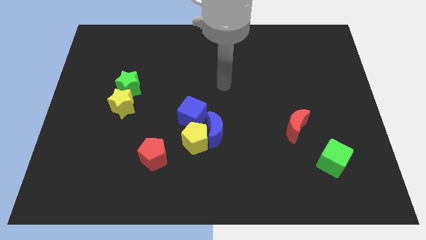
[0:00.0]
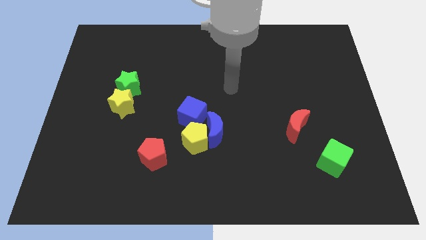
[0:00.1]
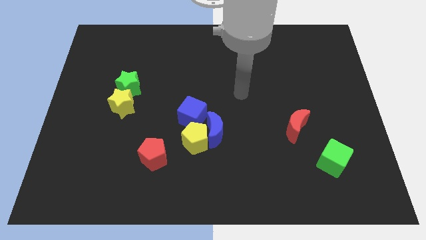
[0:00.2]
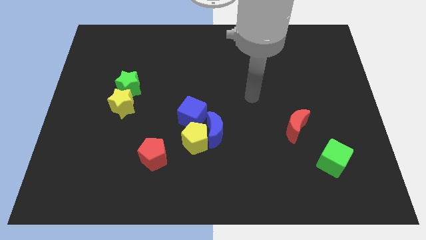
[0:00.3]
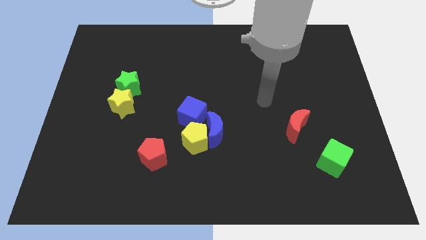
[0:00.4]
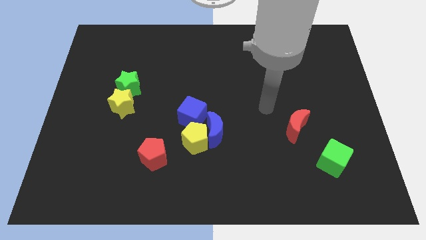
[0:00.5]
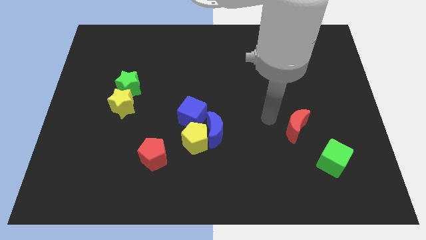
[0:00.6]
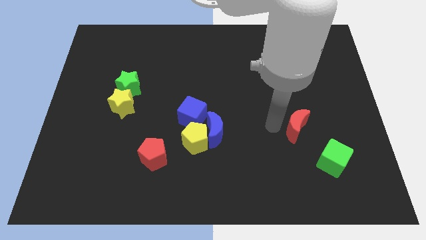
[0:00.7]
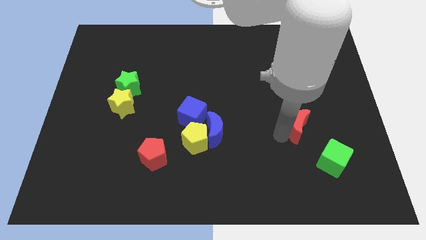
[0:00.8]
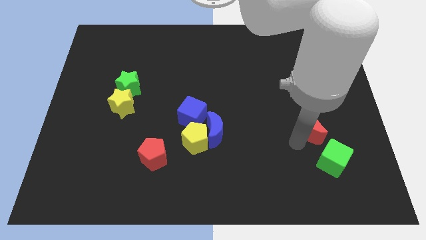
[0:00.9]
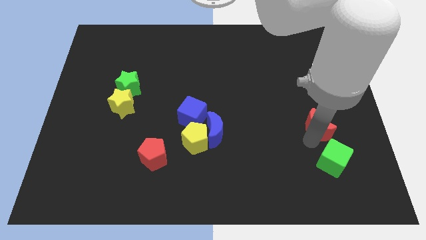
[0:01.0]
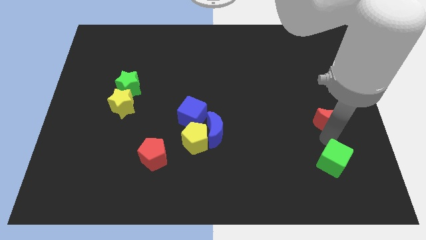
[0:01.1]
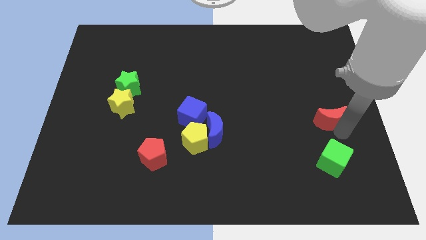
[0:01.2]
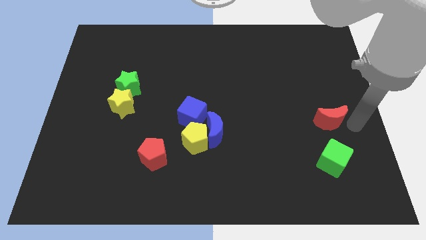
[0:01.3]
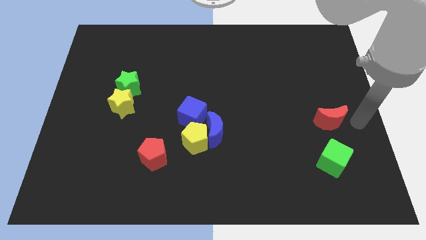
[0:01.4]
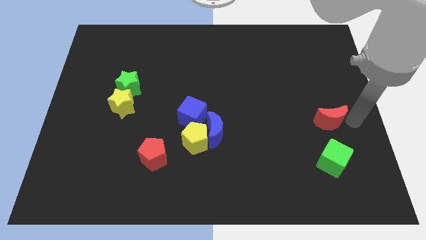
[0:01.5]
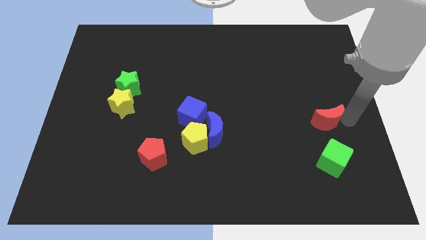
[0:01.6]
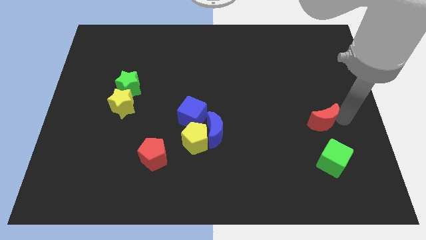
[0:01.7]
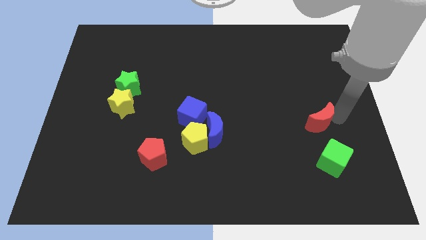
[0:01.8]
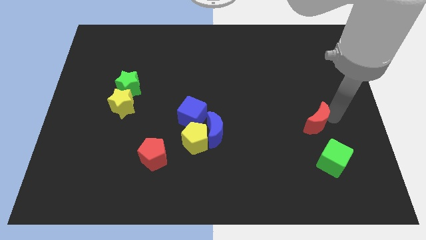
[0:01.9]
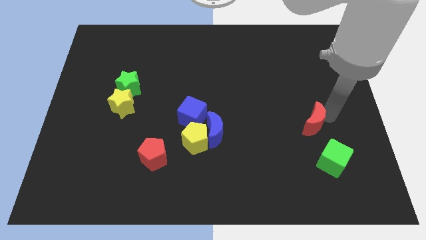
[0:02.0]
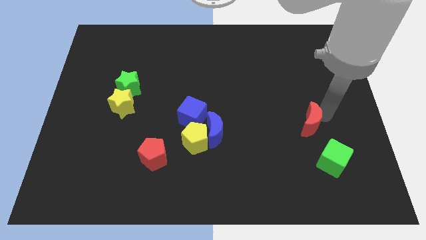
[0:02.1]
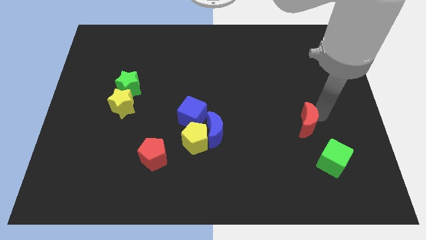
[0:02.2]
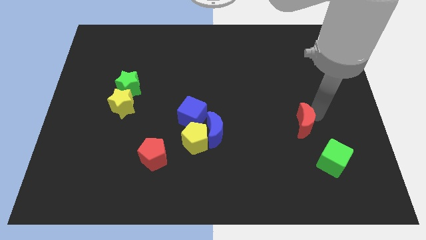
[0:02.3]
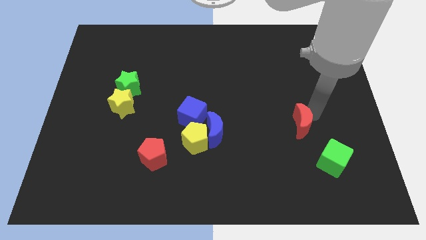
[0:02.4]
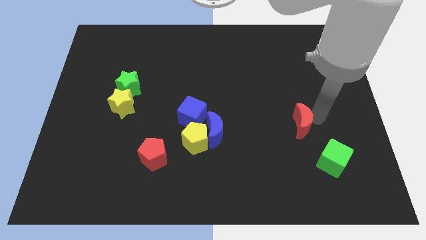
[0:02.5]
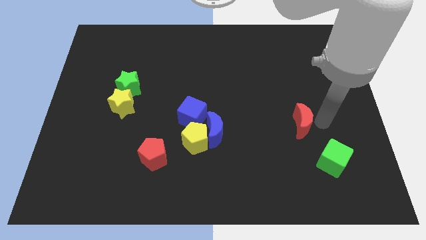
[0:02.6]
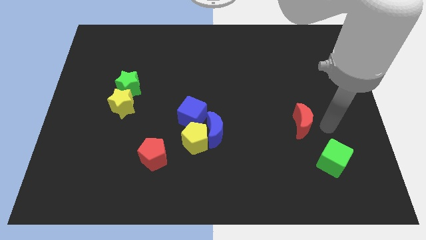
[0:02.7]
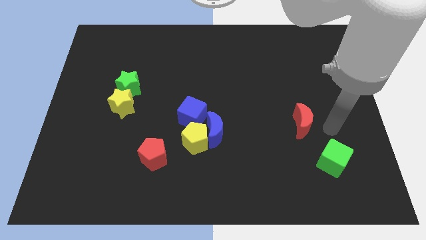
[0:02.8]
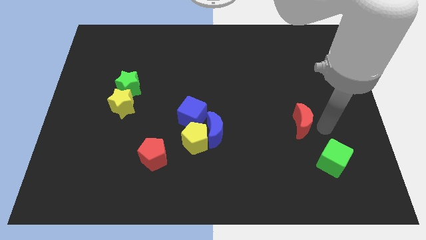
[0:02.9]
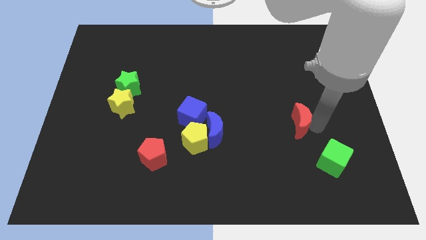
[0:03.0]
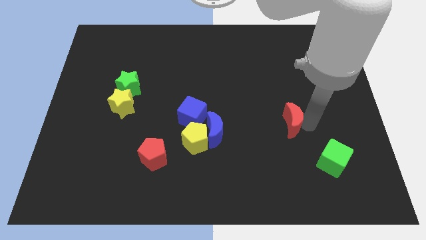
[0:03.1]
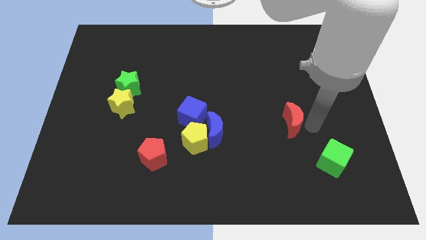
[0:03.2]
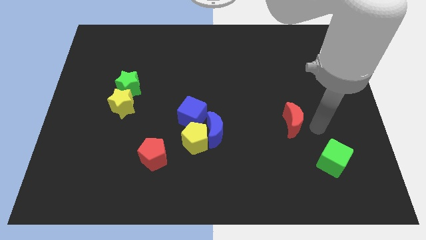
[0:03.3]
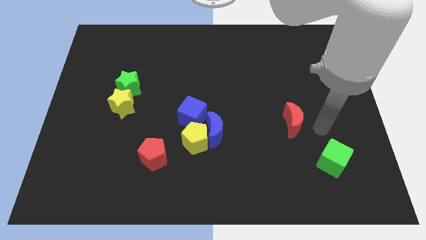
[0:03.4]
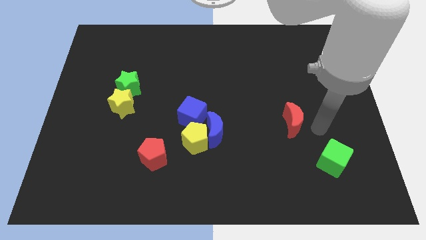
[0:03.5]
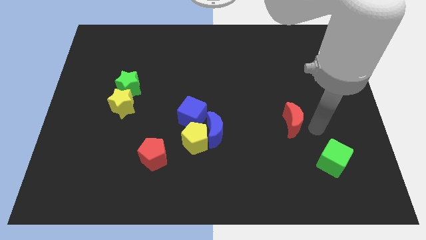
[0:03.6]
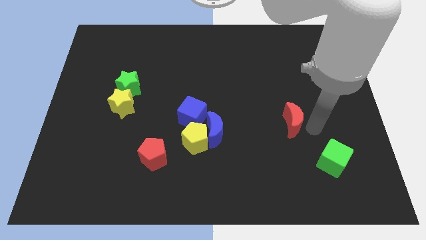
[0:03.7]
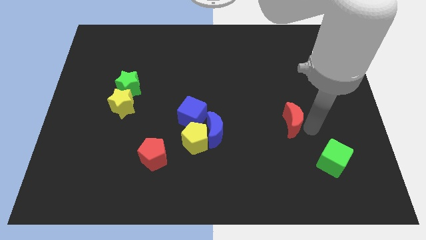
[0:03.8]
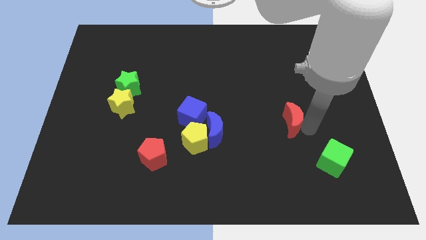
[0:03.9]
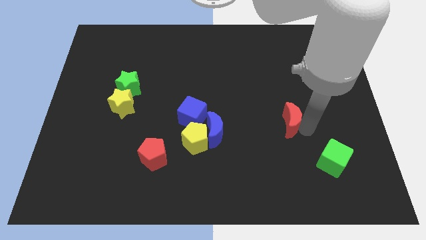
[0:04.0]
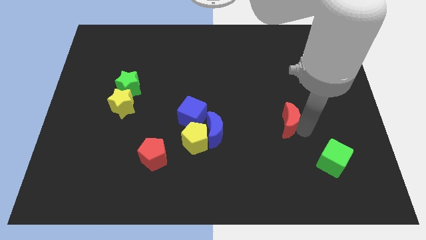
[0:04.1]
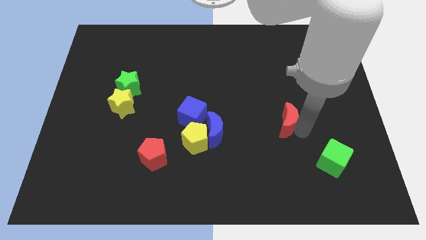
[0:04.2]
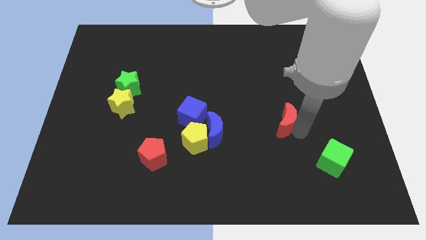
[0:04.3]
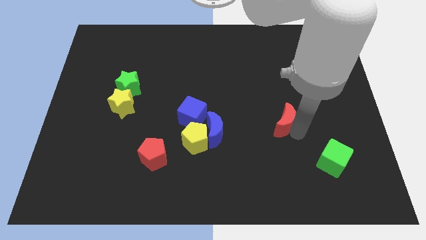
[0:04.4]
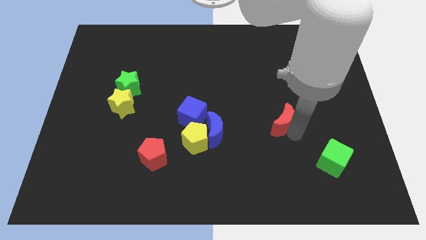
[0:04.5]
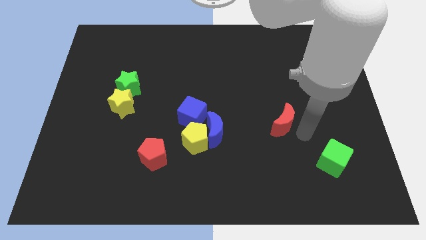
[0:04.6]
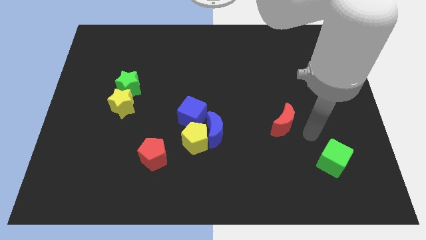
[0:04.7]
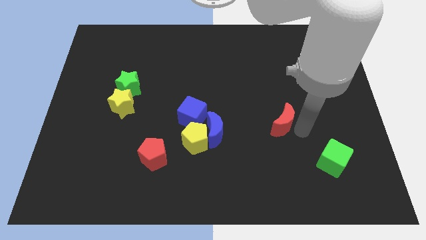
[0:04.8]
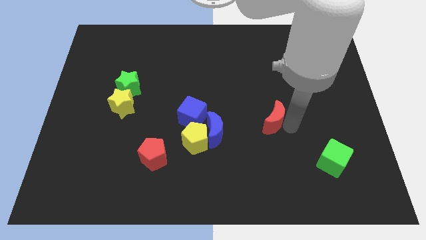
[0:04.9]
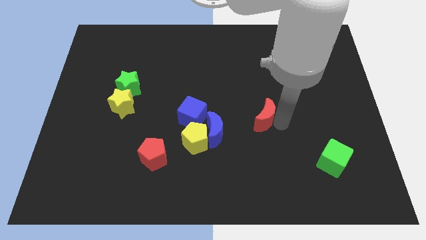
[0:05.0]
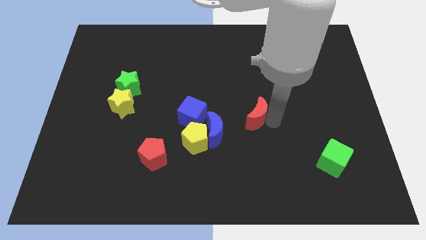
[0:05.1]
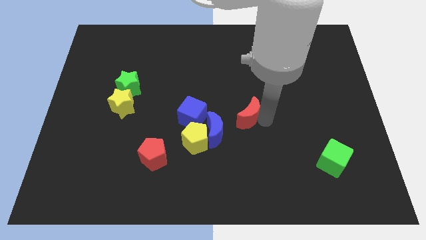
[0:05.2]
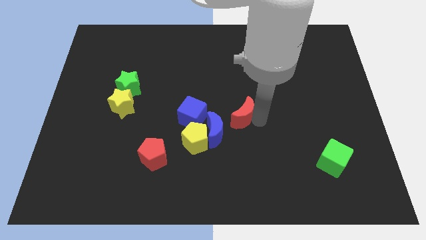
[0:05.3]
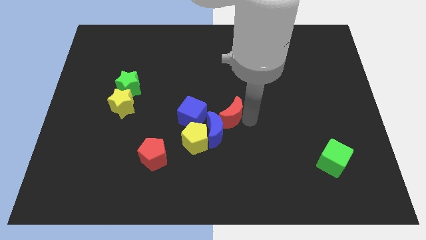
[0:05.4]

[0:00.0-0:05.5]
put the red moon to the top of the blue moon

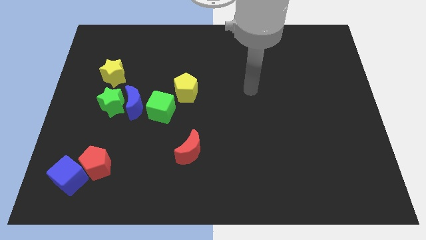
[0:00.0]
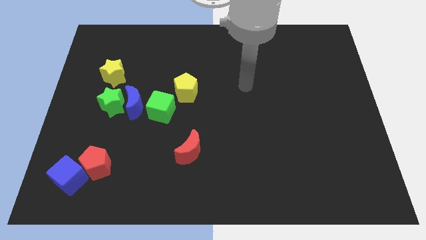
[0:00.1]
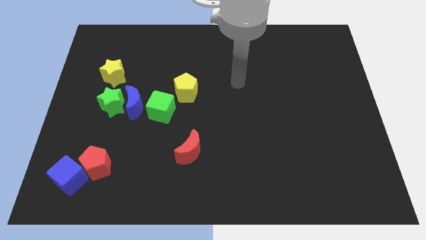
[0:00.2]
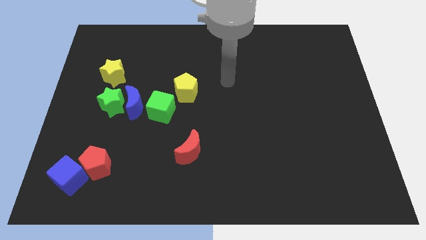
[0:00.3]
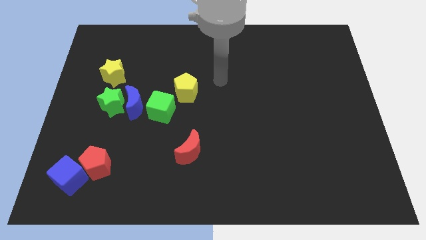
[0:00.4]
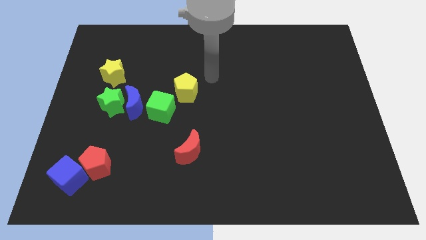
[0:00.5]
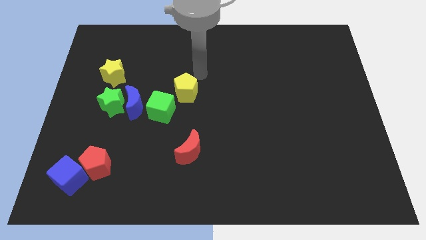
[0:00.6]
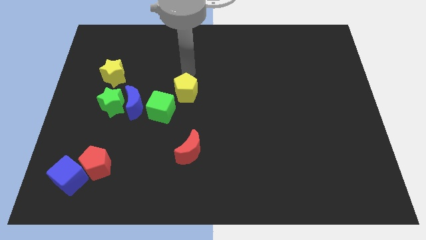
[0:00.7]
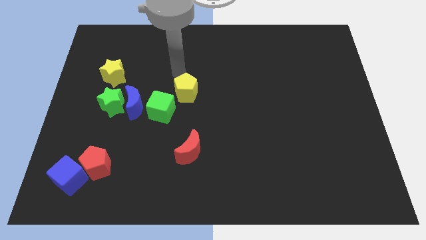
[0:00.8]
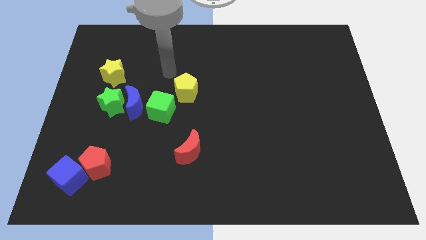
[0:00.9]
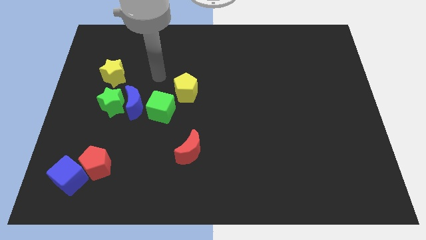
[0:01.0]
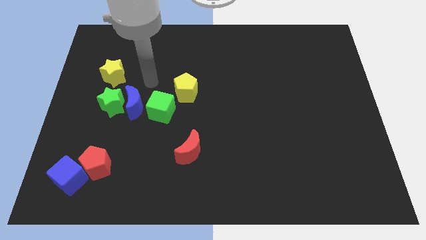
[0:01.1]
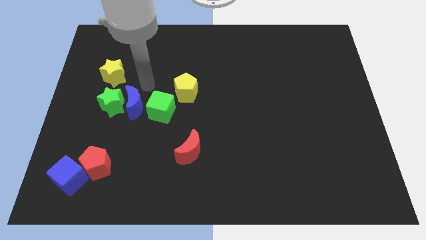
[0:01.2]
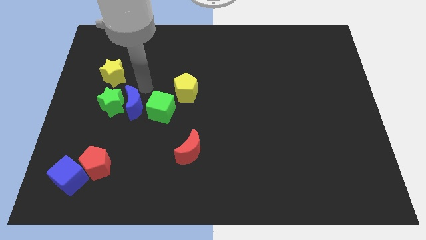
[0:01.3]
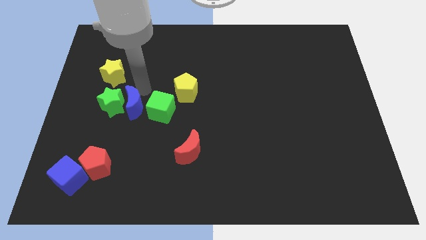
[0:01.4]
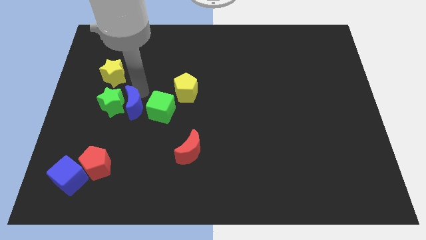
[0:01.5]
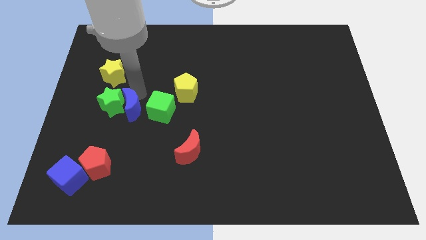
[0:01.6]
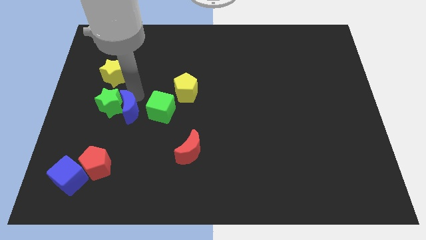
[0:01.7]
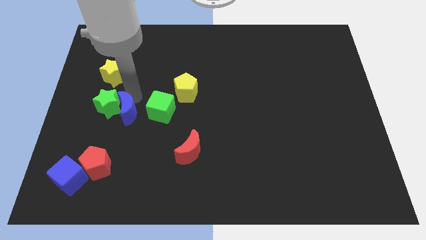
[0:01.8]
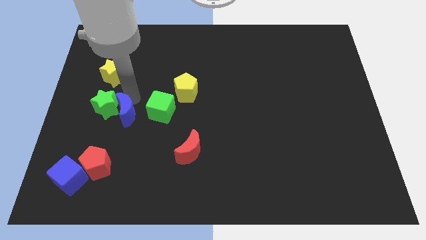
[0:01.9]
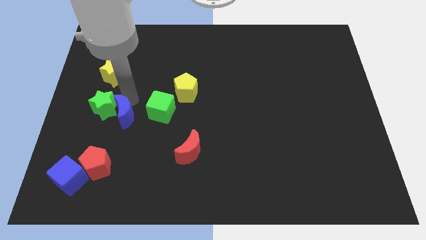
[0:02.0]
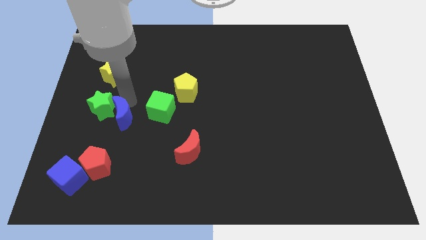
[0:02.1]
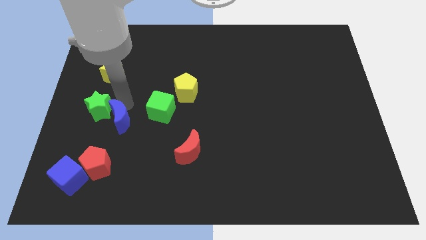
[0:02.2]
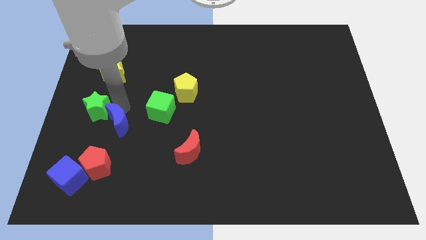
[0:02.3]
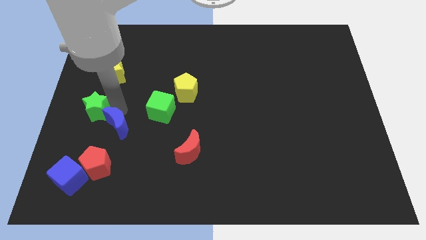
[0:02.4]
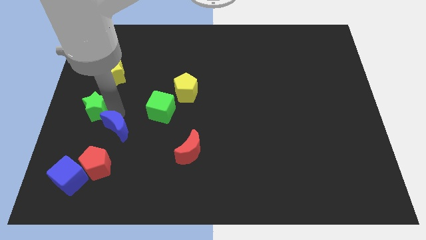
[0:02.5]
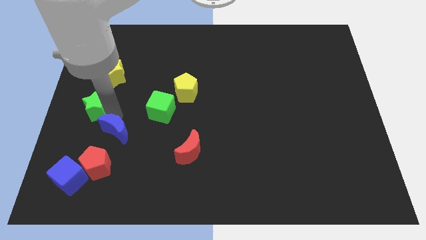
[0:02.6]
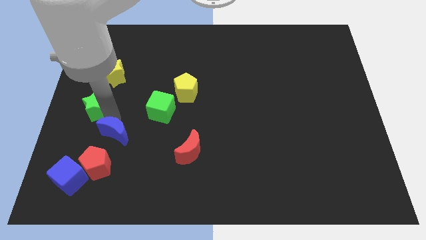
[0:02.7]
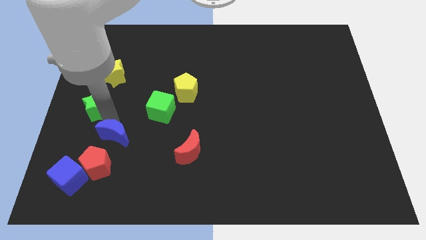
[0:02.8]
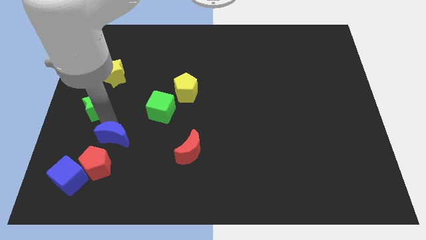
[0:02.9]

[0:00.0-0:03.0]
slide the blue moon to the top right side of the blue cube
